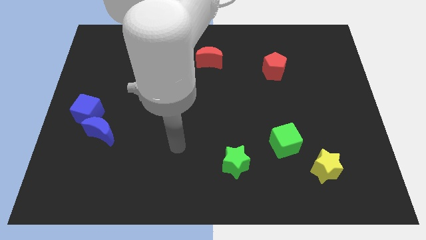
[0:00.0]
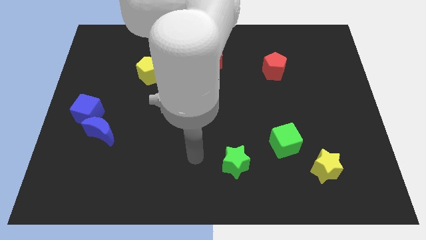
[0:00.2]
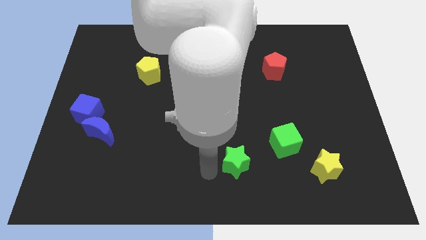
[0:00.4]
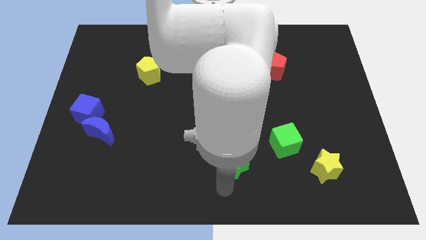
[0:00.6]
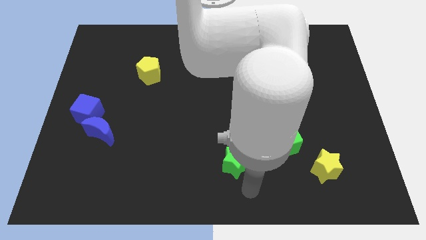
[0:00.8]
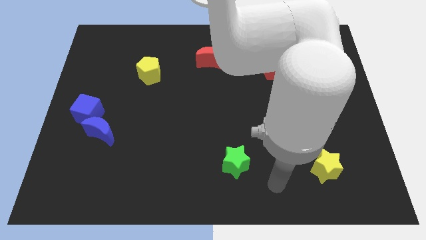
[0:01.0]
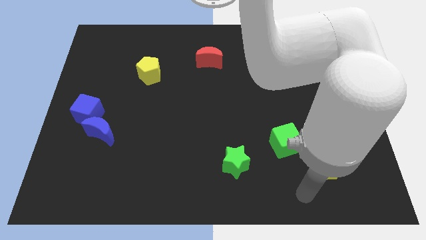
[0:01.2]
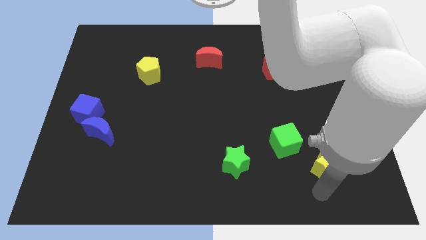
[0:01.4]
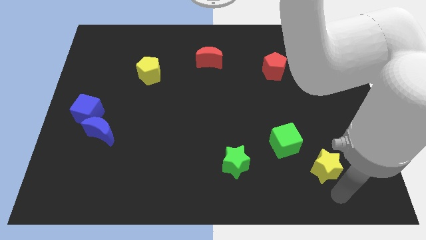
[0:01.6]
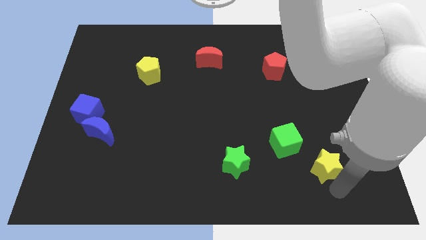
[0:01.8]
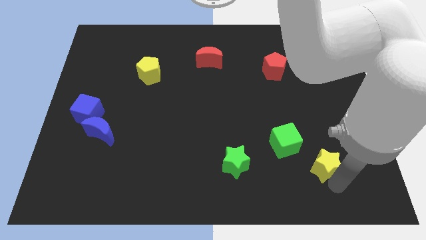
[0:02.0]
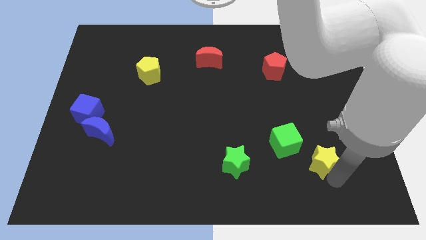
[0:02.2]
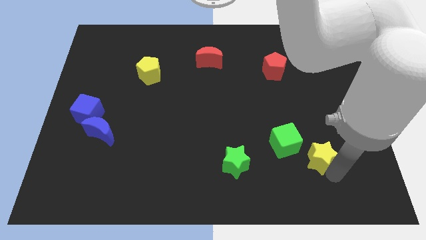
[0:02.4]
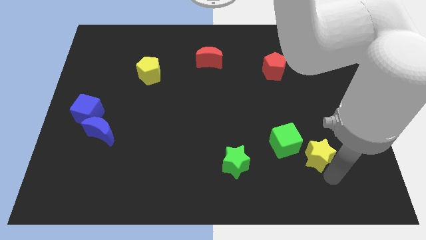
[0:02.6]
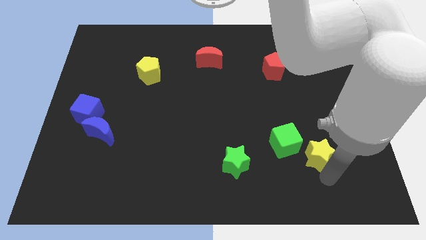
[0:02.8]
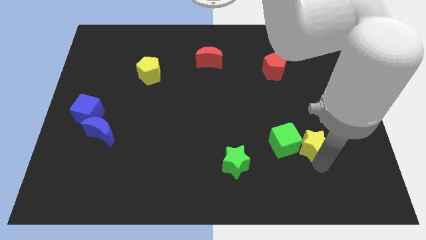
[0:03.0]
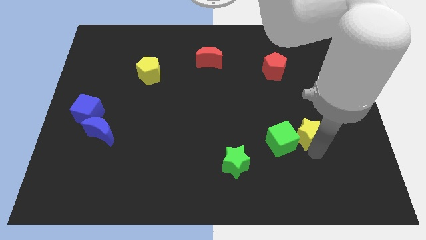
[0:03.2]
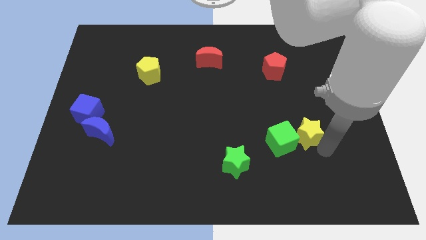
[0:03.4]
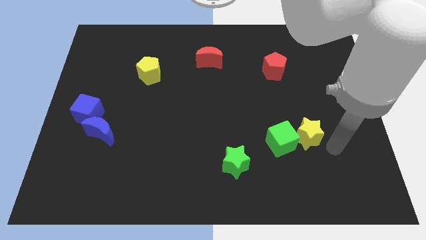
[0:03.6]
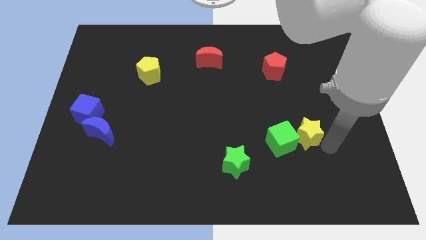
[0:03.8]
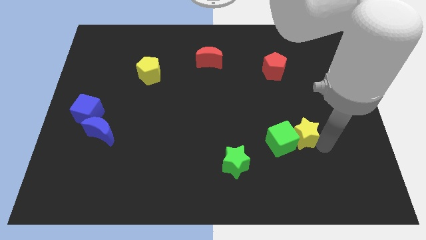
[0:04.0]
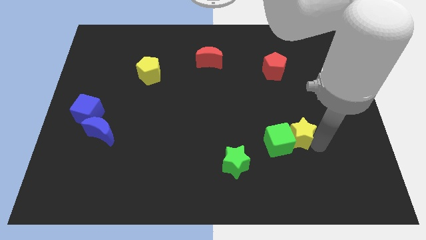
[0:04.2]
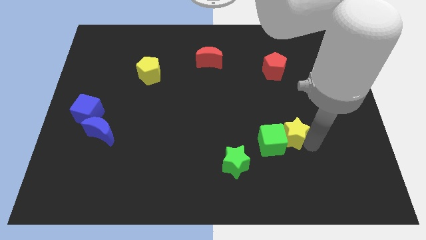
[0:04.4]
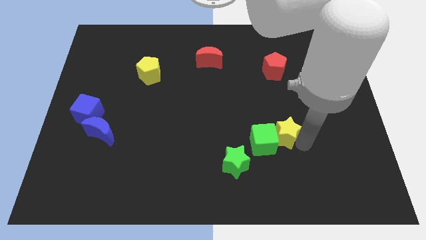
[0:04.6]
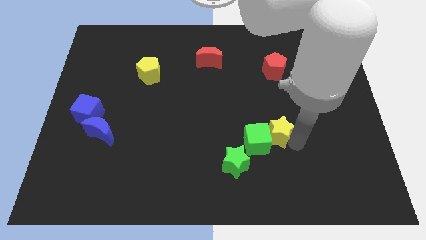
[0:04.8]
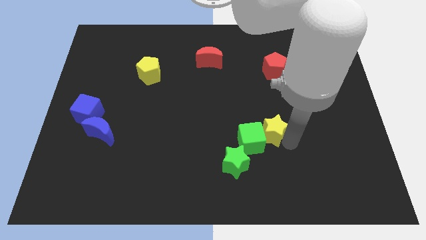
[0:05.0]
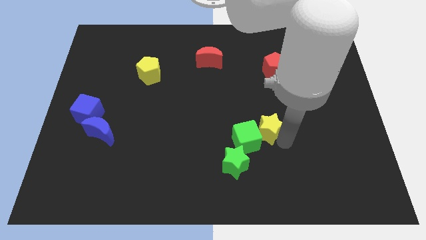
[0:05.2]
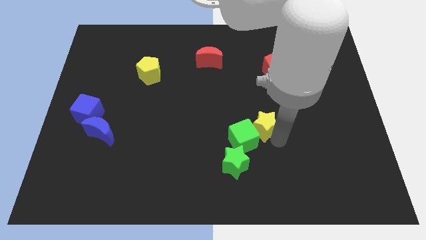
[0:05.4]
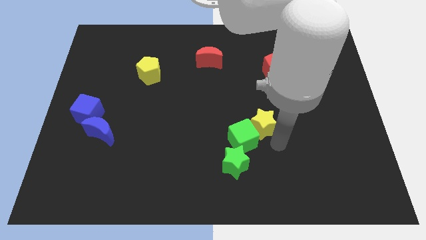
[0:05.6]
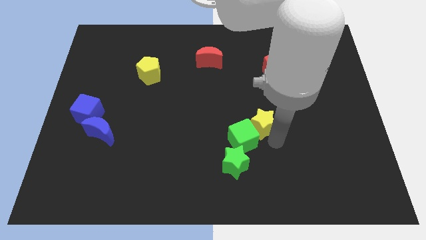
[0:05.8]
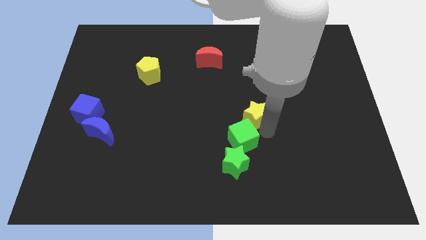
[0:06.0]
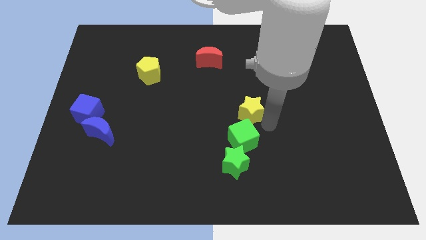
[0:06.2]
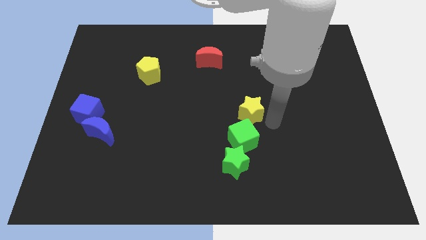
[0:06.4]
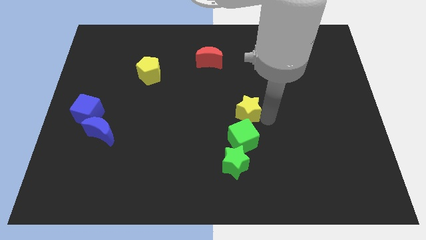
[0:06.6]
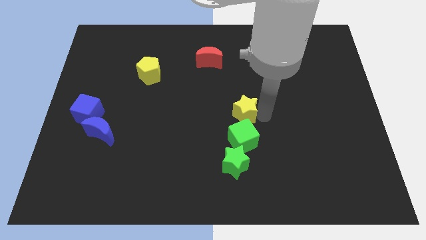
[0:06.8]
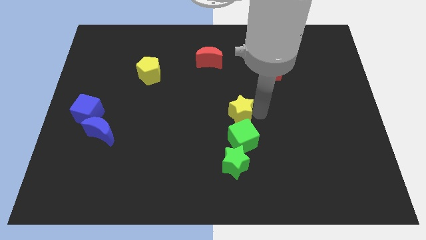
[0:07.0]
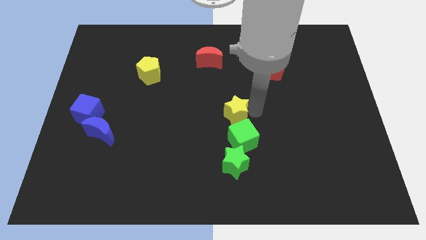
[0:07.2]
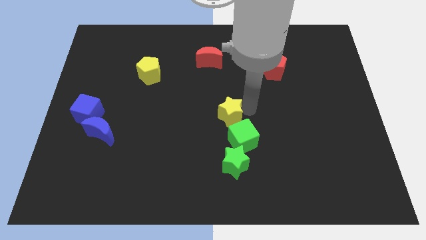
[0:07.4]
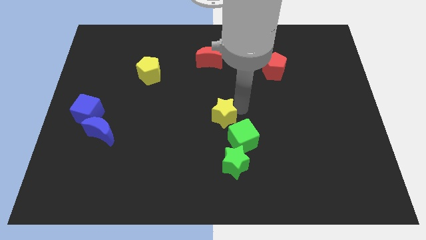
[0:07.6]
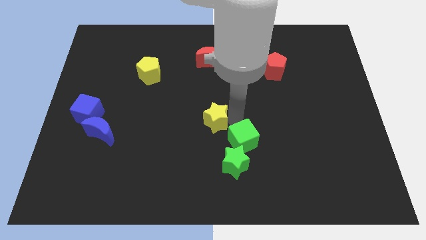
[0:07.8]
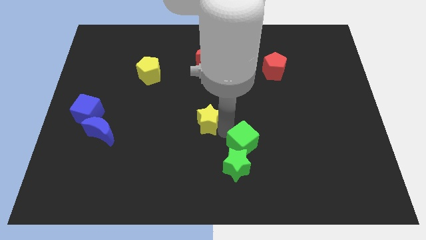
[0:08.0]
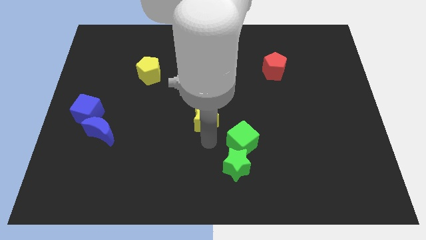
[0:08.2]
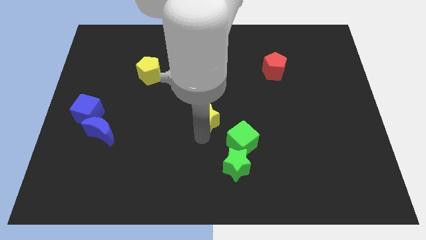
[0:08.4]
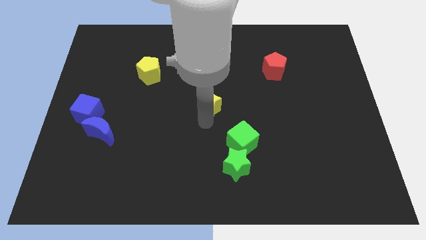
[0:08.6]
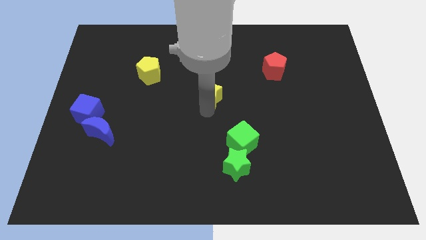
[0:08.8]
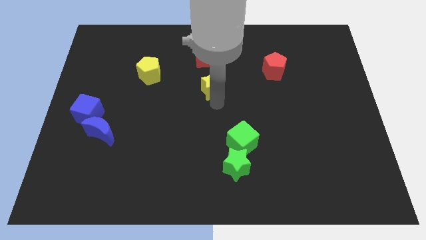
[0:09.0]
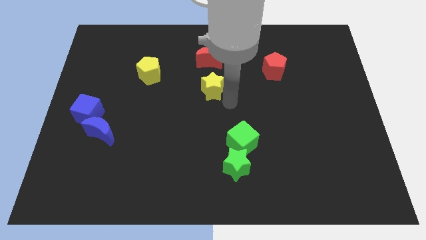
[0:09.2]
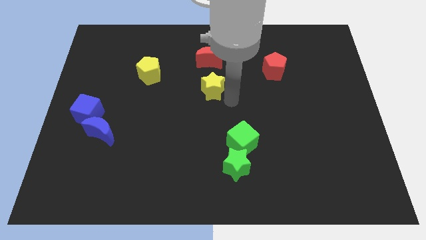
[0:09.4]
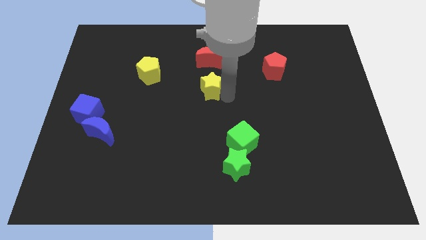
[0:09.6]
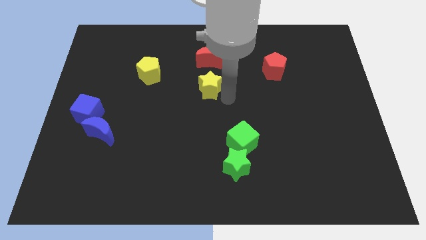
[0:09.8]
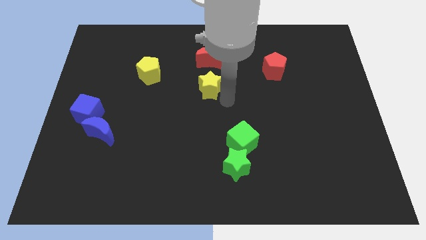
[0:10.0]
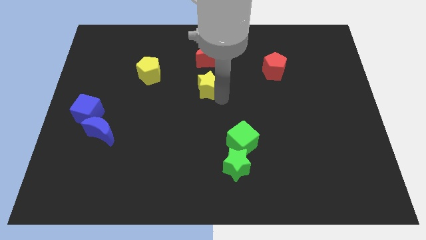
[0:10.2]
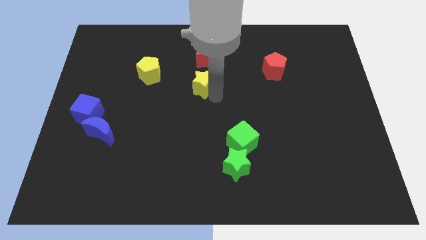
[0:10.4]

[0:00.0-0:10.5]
move the yellow star just right of the yellow pentagon

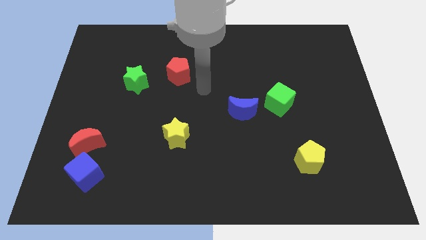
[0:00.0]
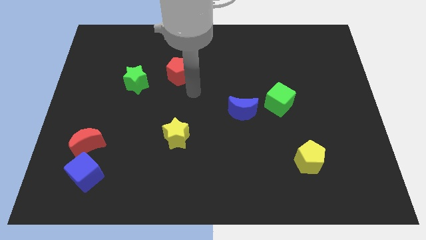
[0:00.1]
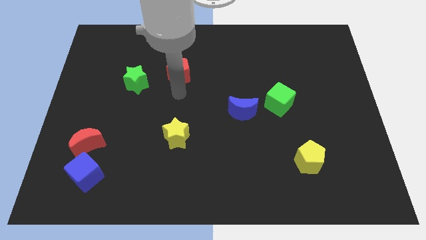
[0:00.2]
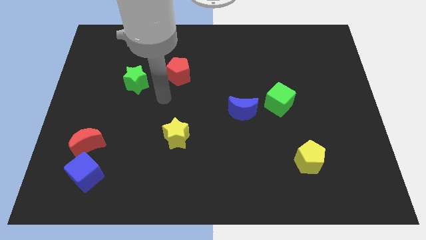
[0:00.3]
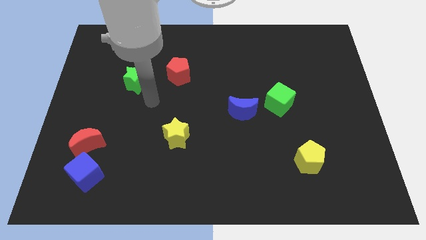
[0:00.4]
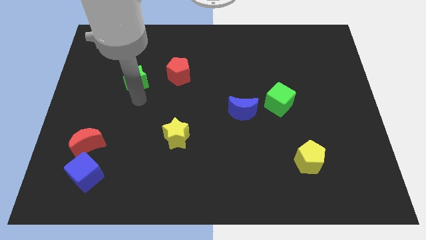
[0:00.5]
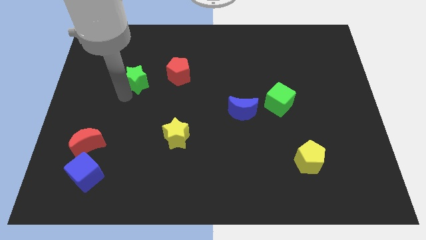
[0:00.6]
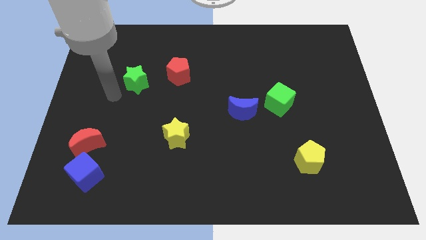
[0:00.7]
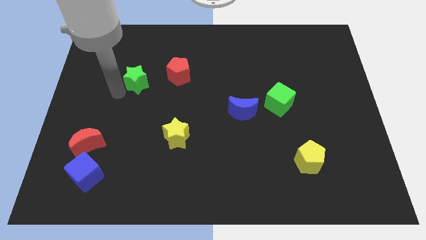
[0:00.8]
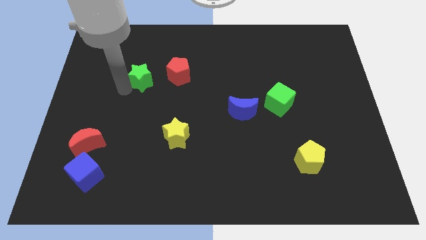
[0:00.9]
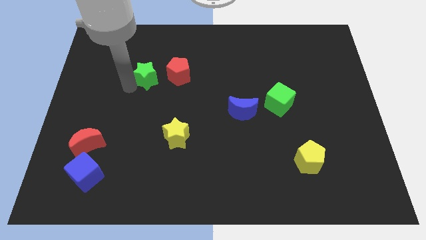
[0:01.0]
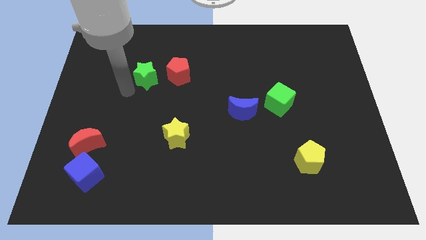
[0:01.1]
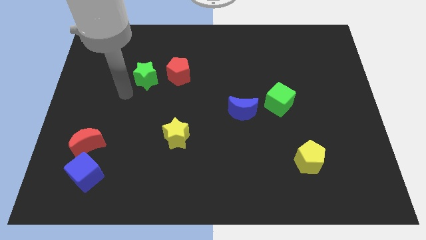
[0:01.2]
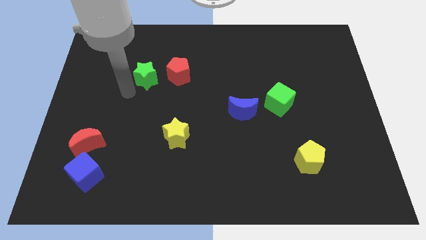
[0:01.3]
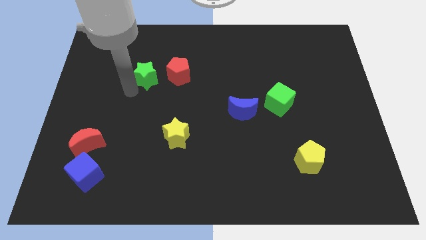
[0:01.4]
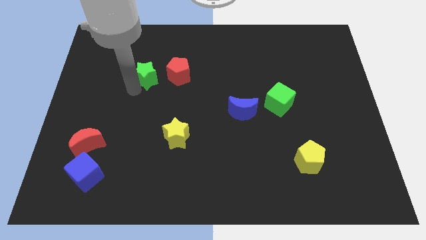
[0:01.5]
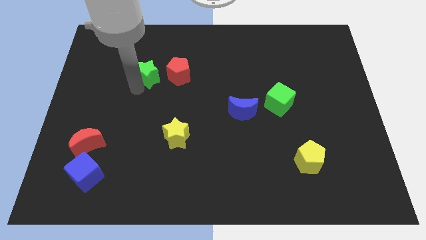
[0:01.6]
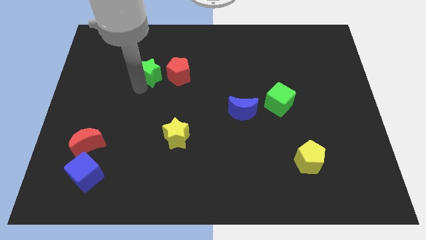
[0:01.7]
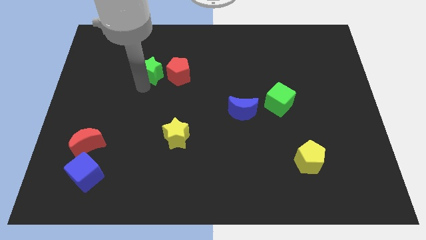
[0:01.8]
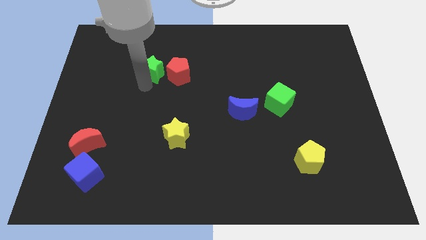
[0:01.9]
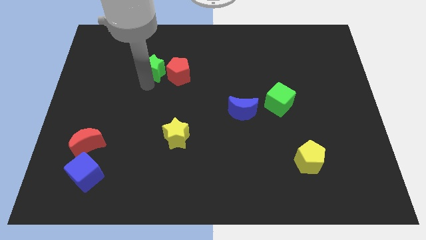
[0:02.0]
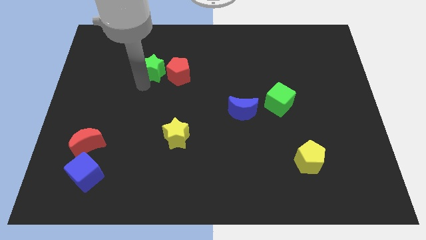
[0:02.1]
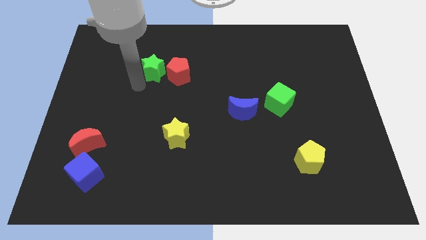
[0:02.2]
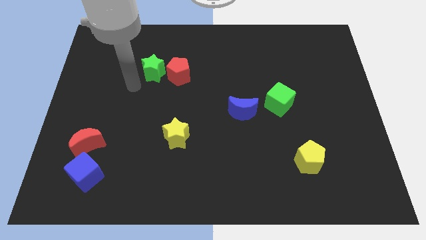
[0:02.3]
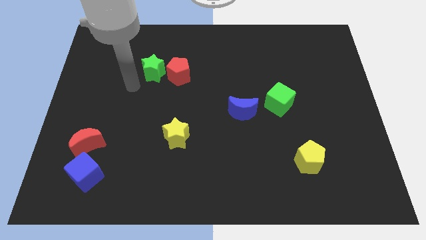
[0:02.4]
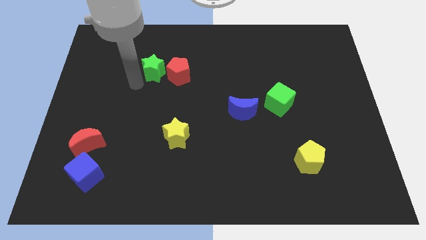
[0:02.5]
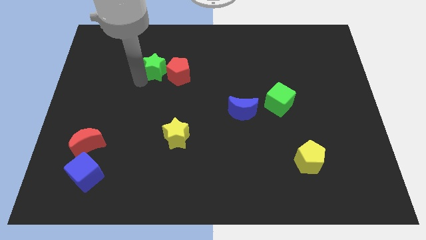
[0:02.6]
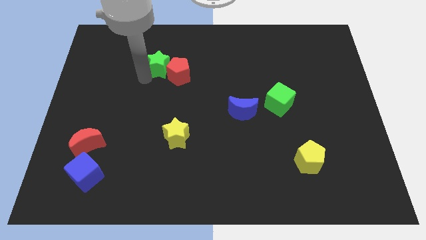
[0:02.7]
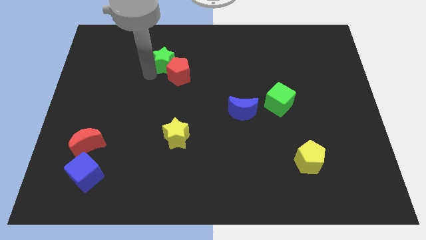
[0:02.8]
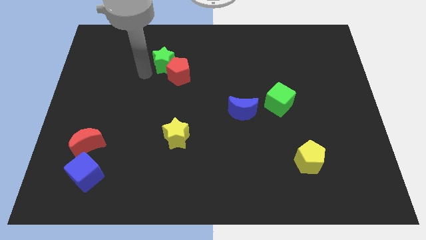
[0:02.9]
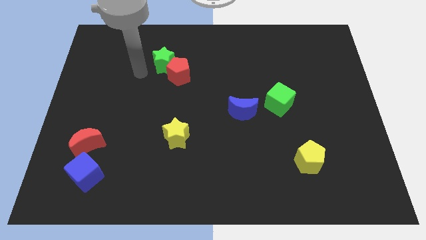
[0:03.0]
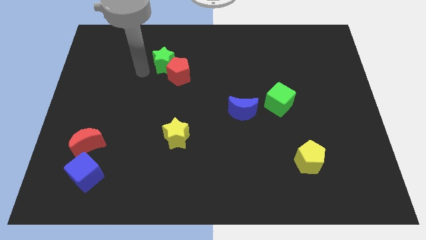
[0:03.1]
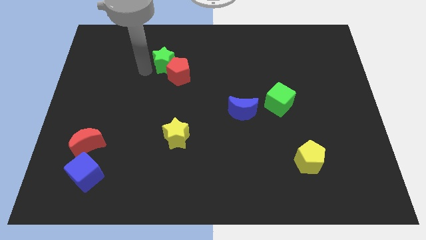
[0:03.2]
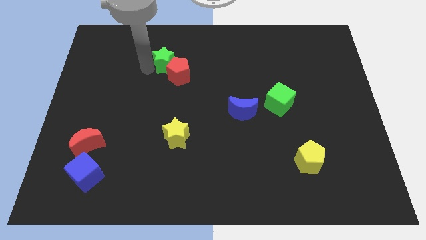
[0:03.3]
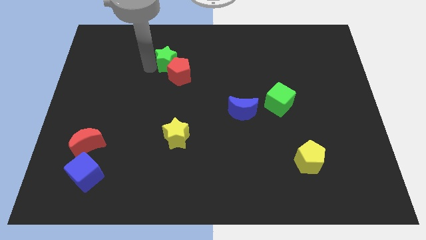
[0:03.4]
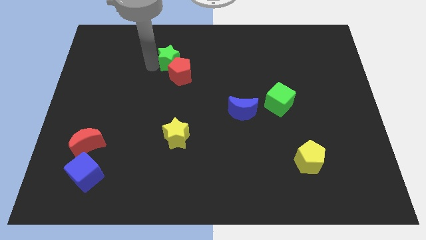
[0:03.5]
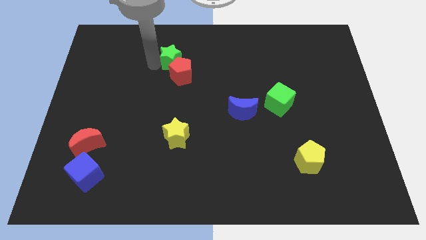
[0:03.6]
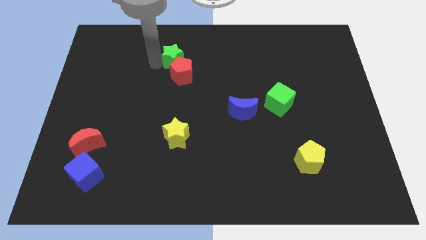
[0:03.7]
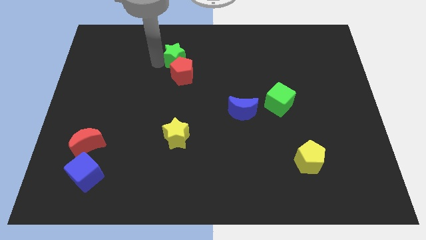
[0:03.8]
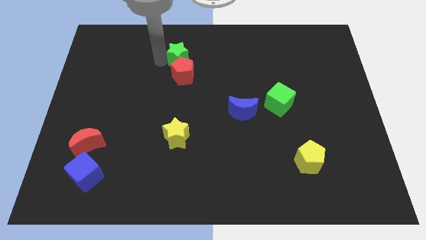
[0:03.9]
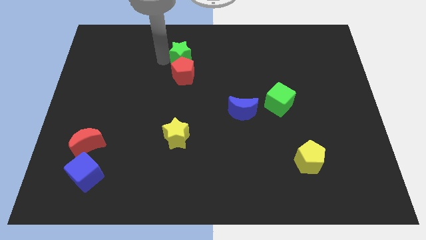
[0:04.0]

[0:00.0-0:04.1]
put the green star to the top right of the red pentagon
